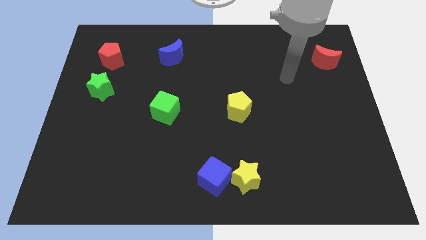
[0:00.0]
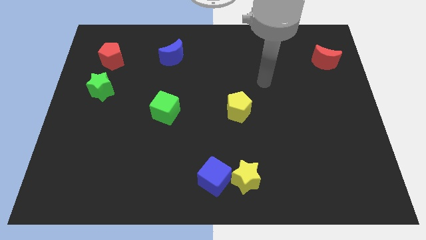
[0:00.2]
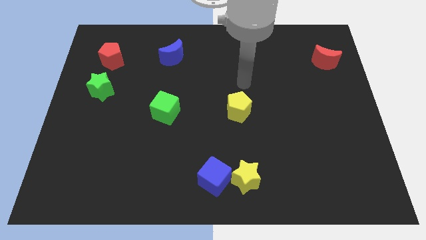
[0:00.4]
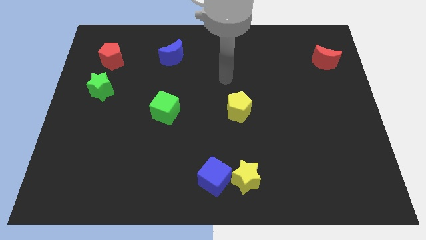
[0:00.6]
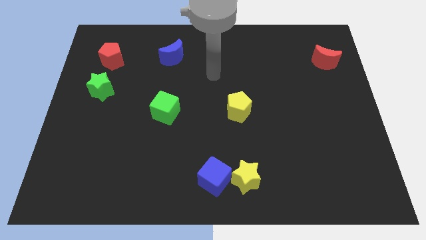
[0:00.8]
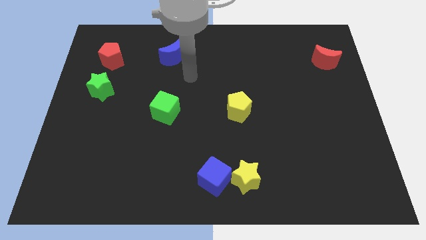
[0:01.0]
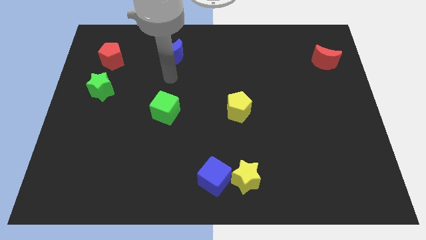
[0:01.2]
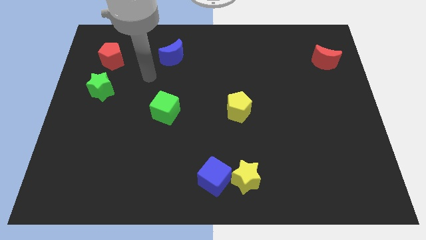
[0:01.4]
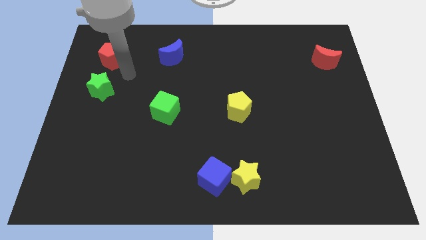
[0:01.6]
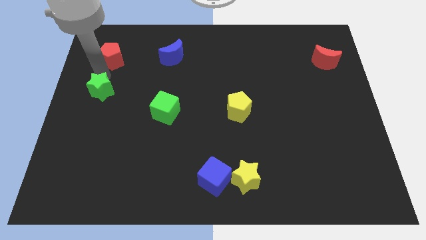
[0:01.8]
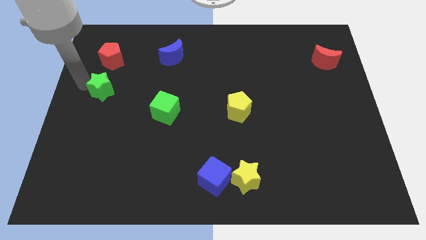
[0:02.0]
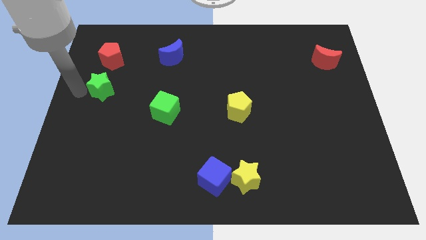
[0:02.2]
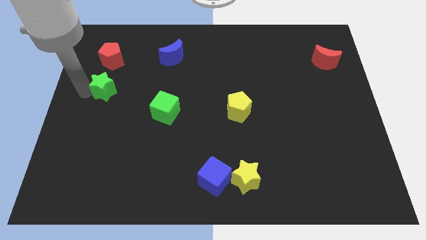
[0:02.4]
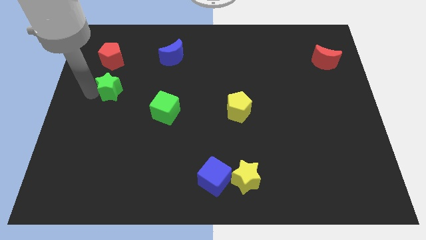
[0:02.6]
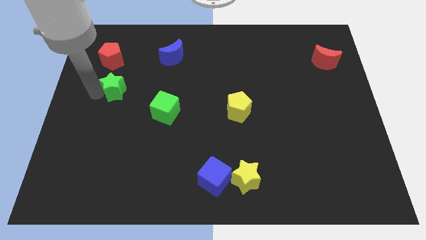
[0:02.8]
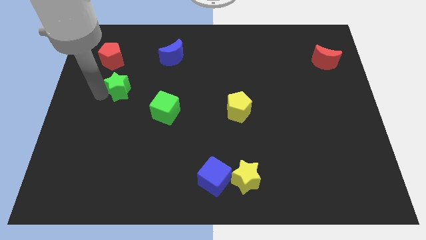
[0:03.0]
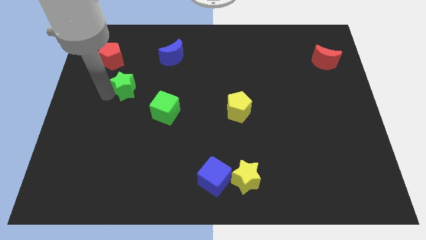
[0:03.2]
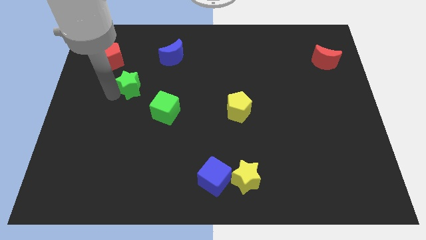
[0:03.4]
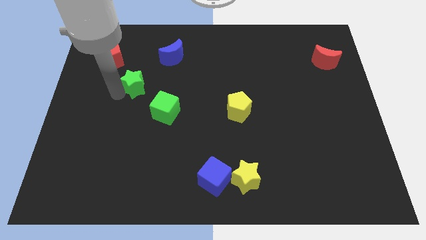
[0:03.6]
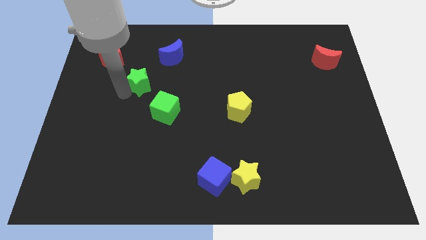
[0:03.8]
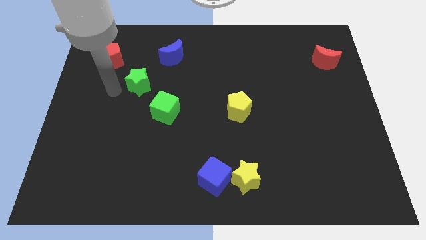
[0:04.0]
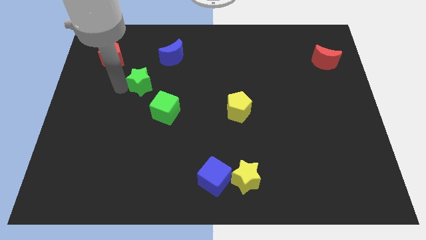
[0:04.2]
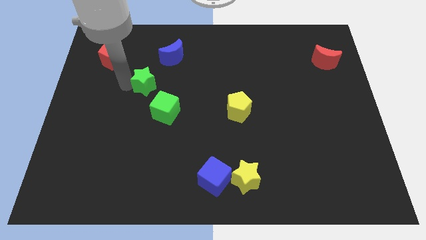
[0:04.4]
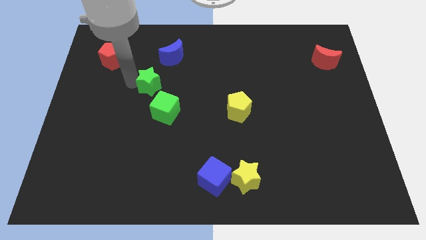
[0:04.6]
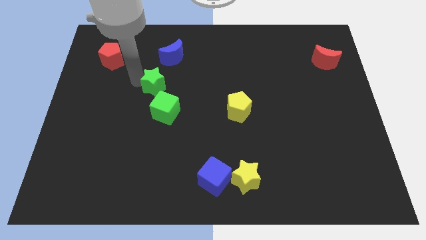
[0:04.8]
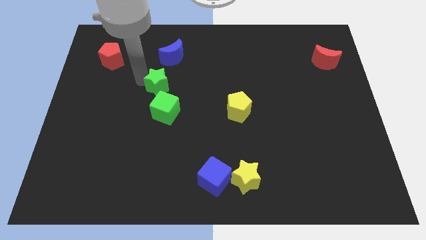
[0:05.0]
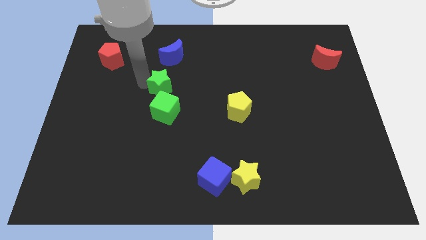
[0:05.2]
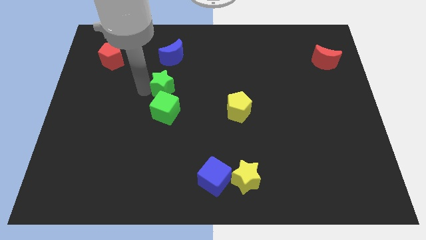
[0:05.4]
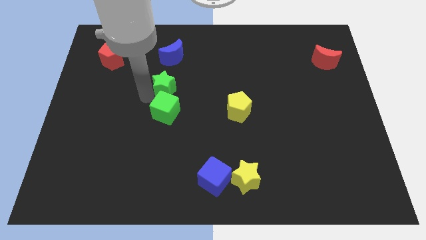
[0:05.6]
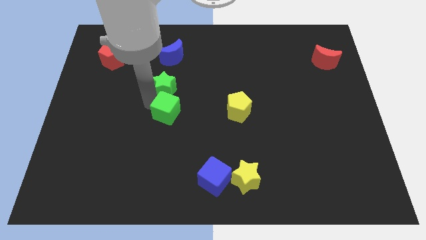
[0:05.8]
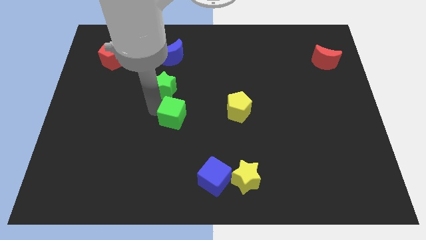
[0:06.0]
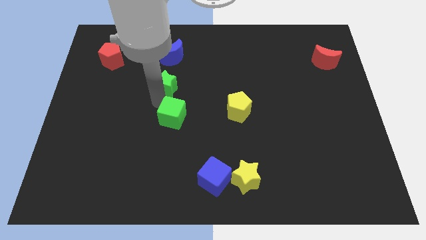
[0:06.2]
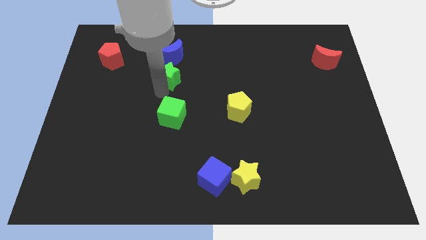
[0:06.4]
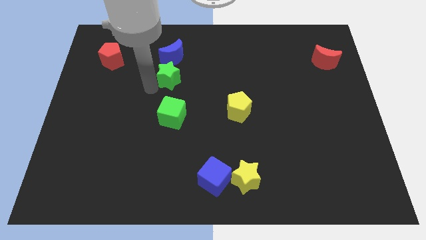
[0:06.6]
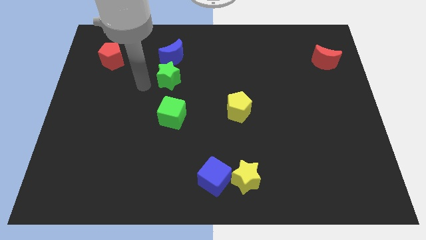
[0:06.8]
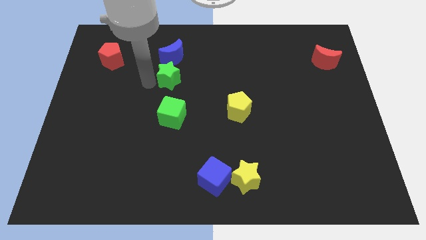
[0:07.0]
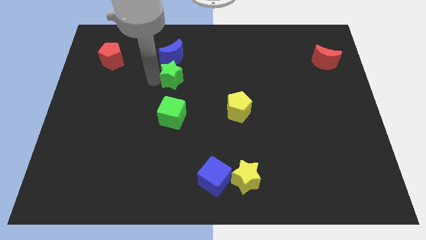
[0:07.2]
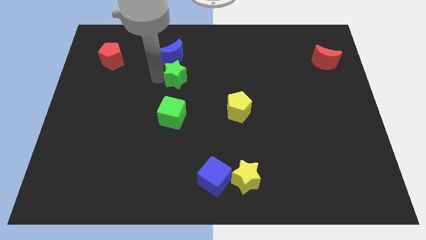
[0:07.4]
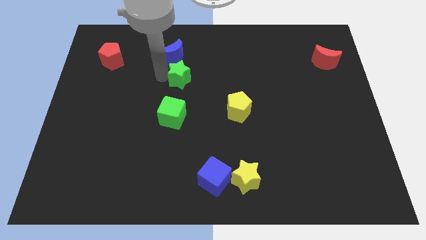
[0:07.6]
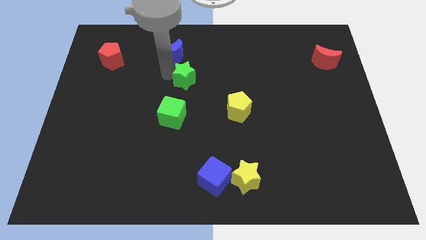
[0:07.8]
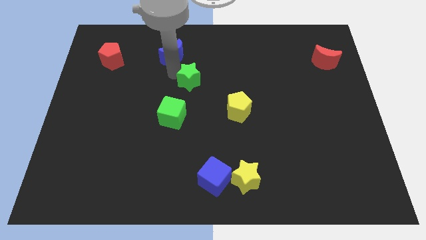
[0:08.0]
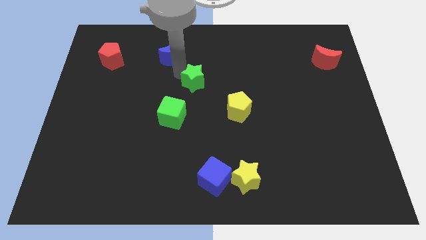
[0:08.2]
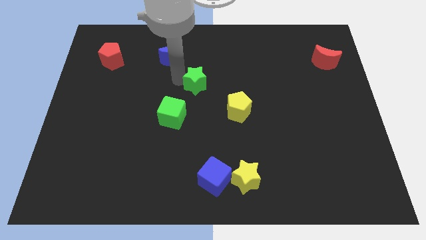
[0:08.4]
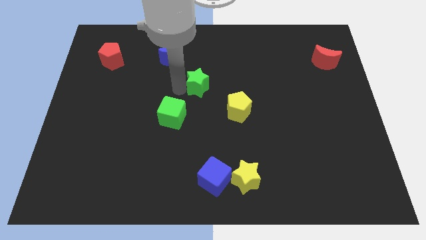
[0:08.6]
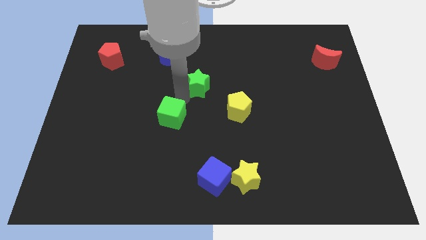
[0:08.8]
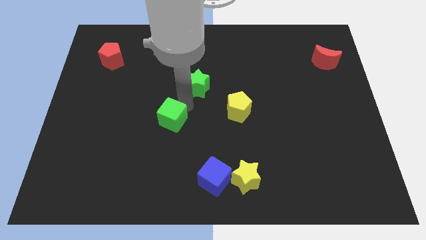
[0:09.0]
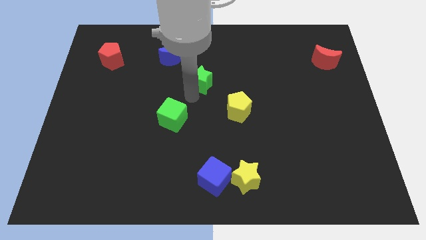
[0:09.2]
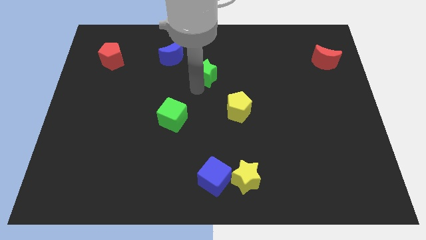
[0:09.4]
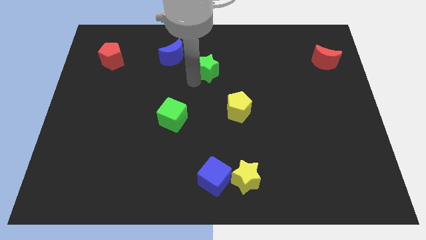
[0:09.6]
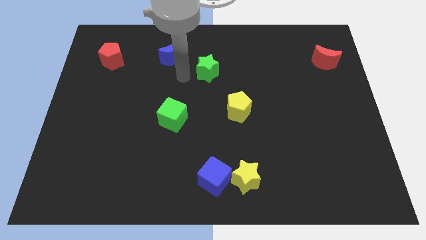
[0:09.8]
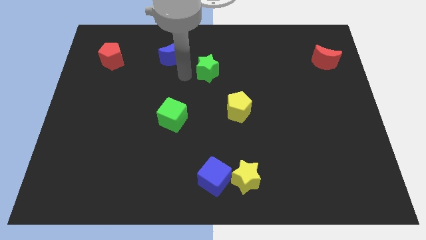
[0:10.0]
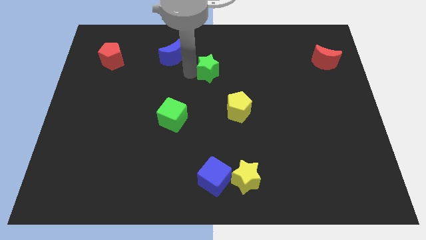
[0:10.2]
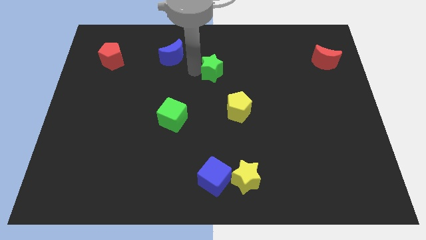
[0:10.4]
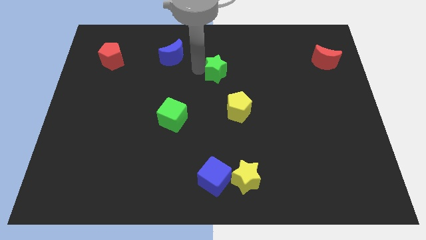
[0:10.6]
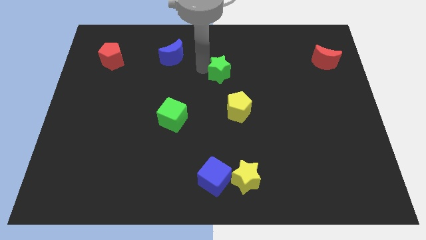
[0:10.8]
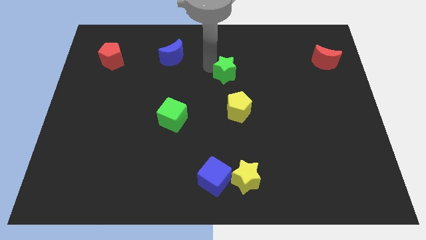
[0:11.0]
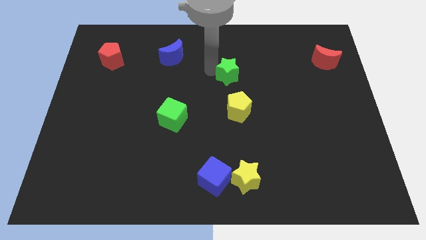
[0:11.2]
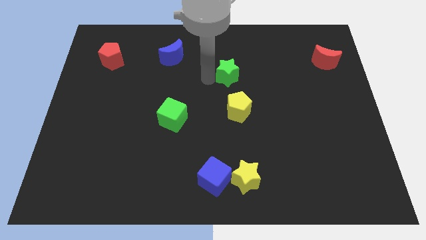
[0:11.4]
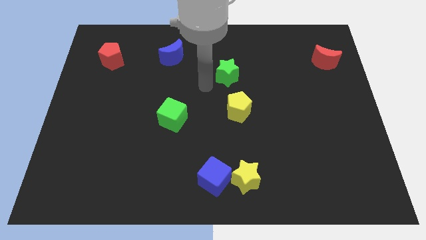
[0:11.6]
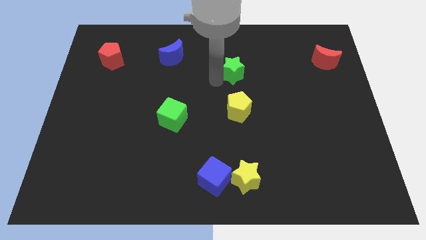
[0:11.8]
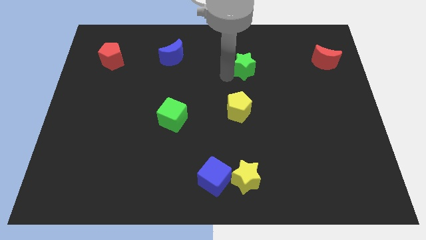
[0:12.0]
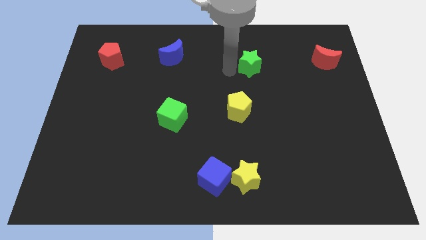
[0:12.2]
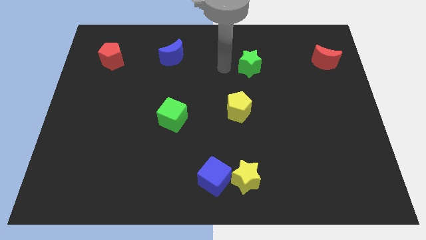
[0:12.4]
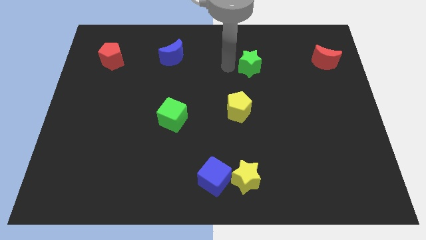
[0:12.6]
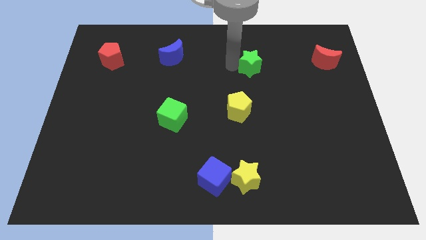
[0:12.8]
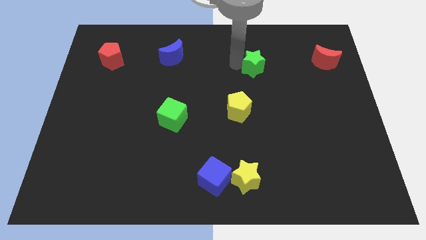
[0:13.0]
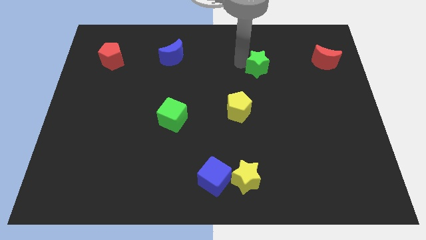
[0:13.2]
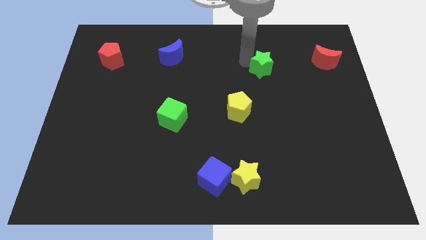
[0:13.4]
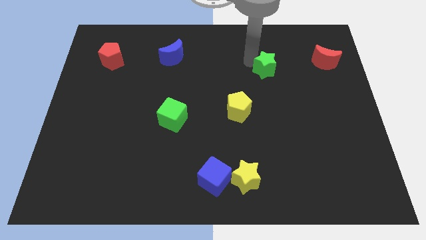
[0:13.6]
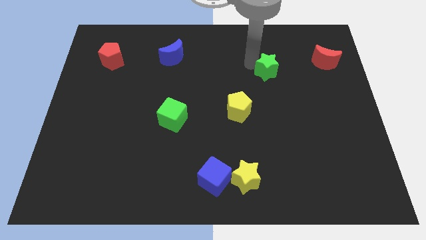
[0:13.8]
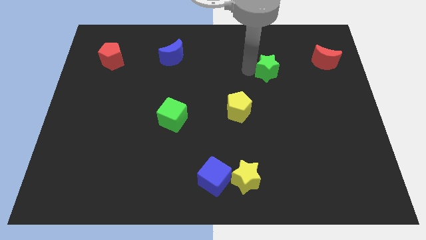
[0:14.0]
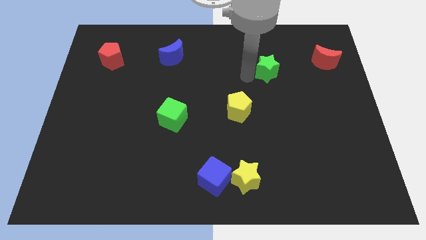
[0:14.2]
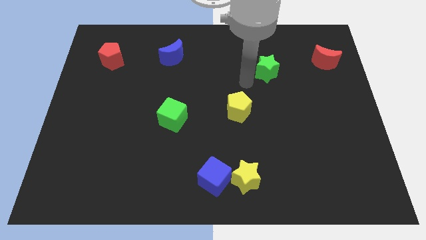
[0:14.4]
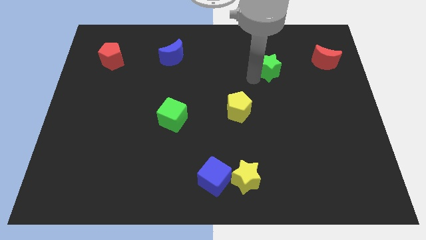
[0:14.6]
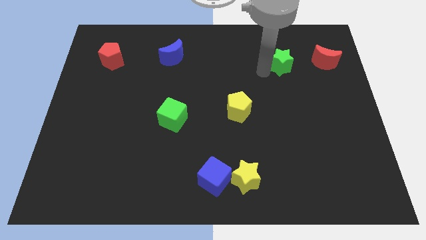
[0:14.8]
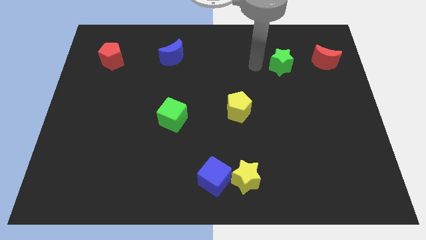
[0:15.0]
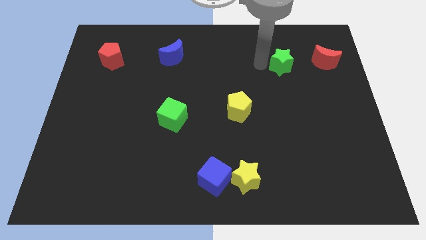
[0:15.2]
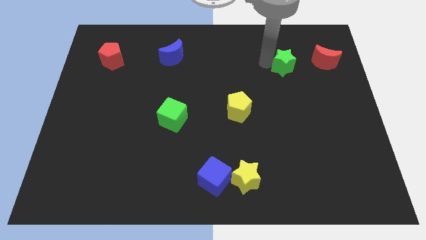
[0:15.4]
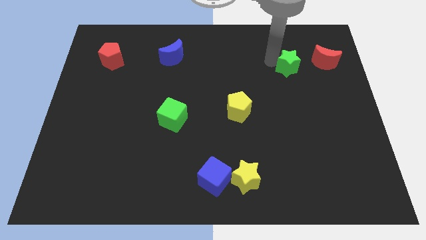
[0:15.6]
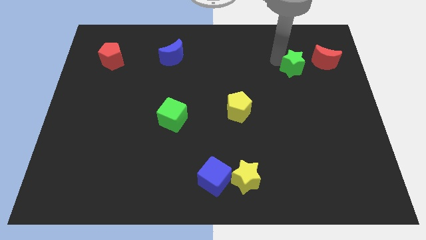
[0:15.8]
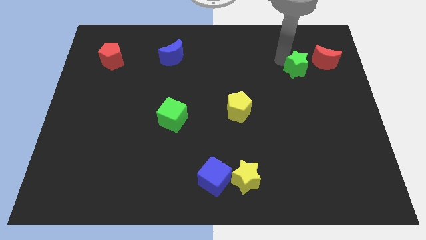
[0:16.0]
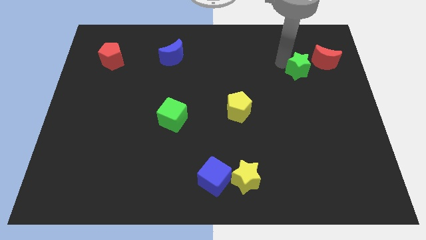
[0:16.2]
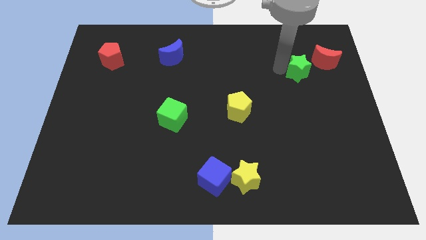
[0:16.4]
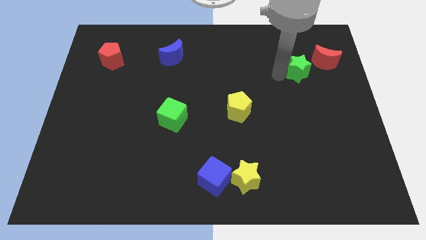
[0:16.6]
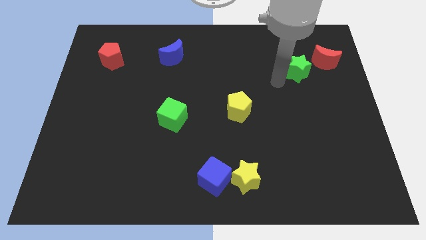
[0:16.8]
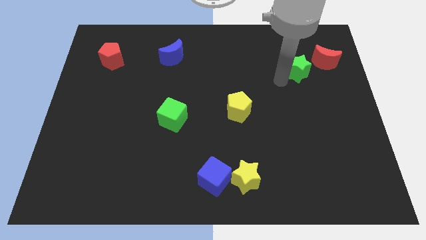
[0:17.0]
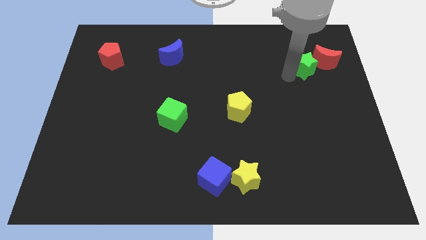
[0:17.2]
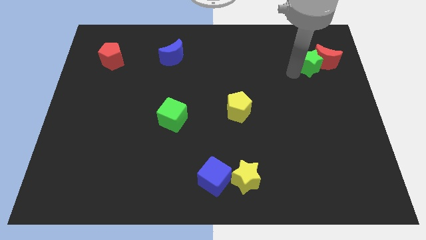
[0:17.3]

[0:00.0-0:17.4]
move the green star close to the red moon
